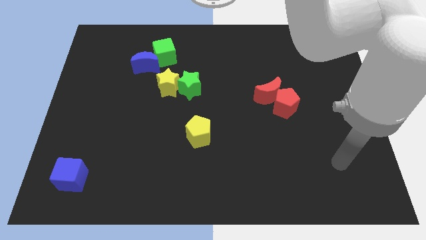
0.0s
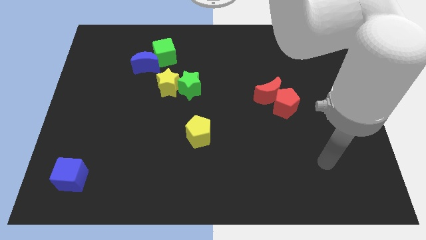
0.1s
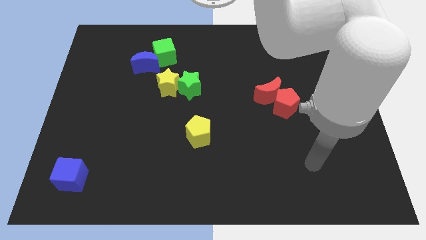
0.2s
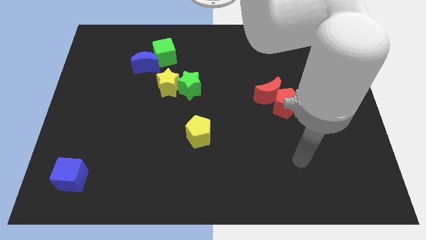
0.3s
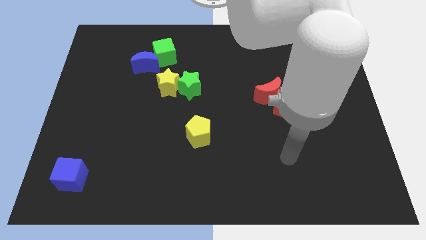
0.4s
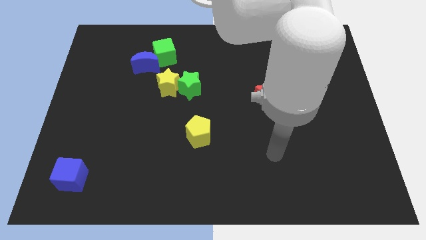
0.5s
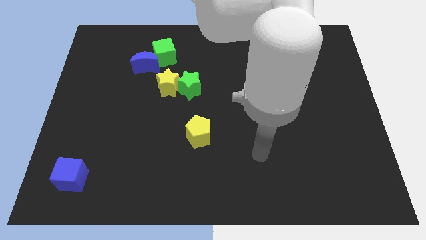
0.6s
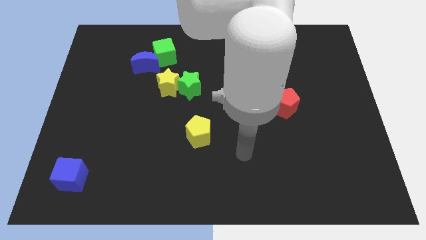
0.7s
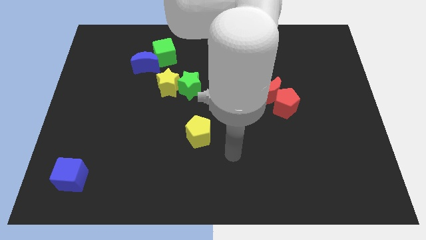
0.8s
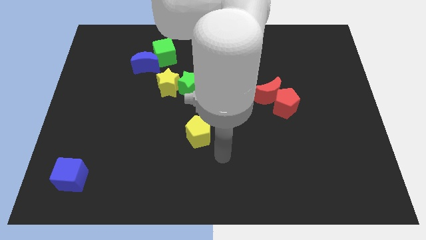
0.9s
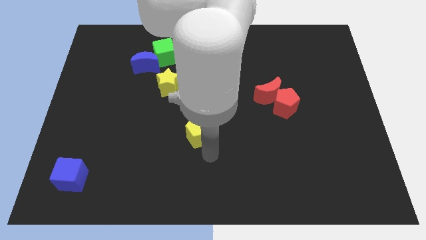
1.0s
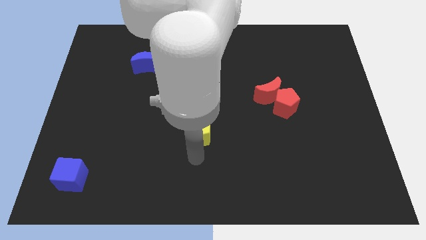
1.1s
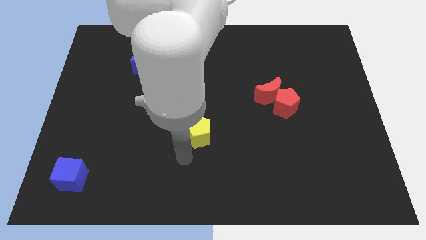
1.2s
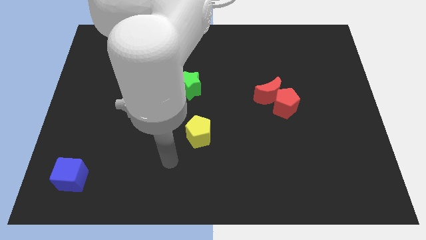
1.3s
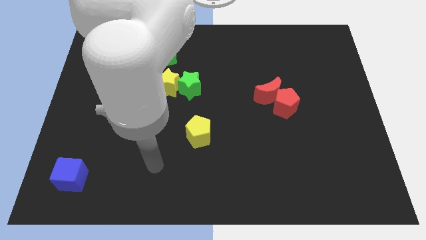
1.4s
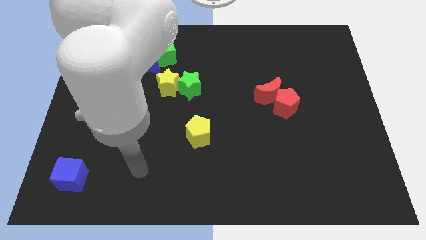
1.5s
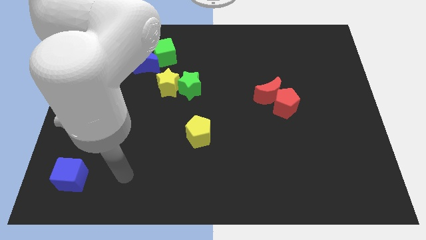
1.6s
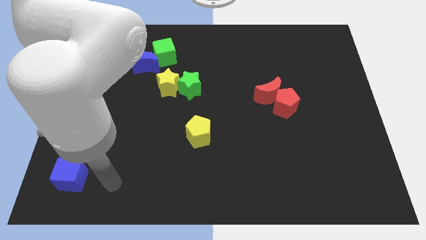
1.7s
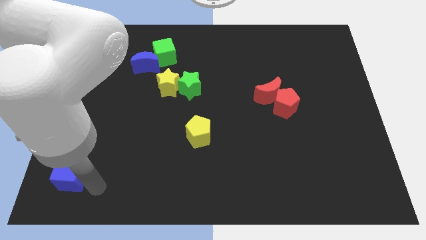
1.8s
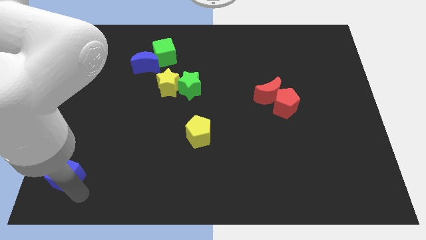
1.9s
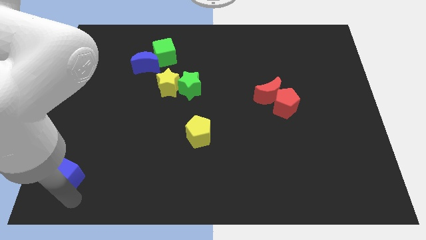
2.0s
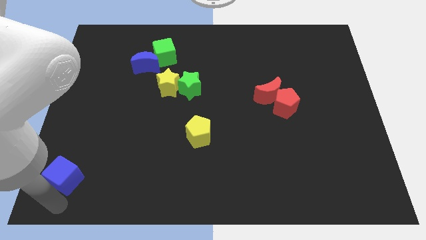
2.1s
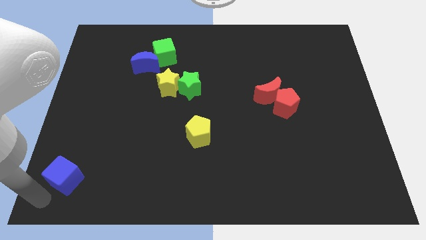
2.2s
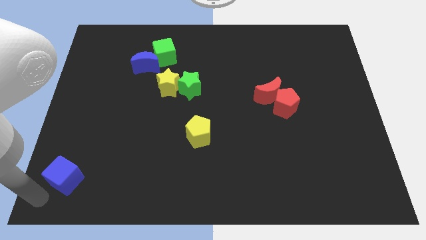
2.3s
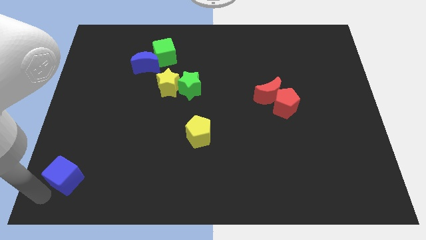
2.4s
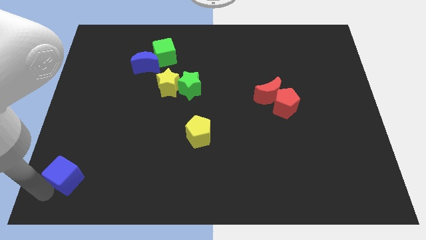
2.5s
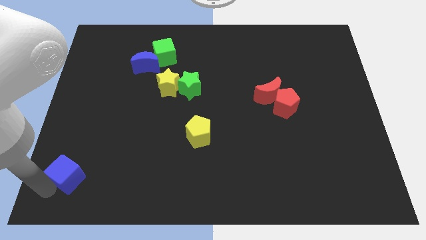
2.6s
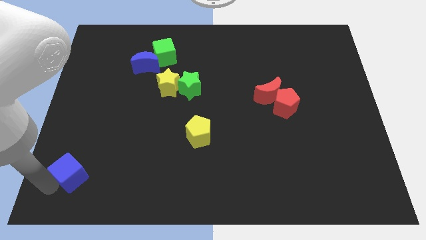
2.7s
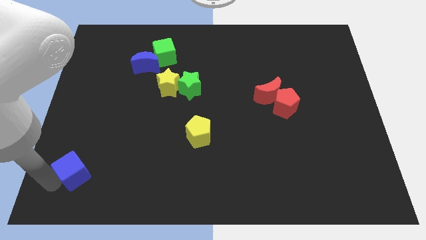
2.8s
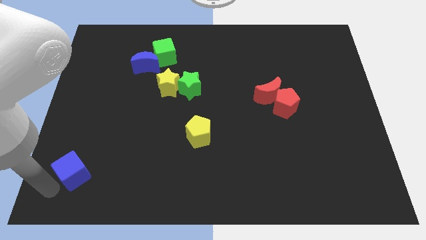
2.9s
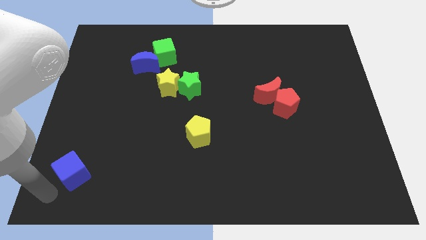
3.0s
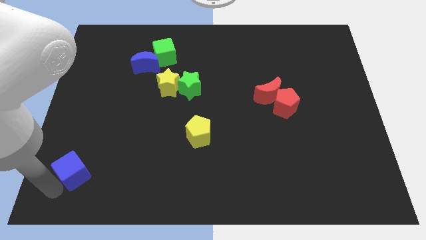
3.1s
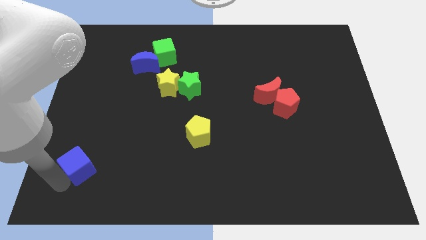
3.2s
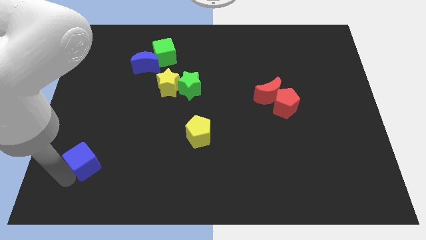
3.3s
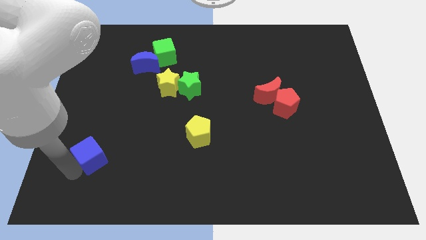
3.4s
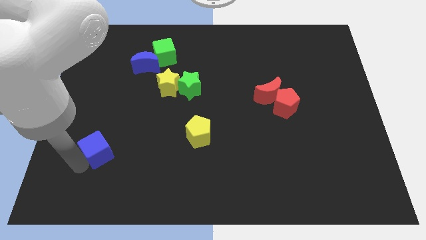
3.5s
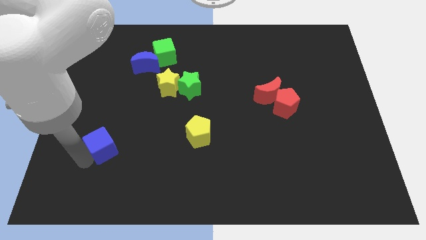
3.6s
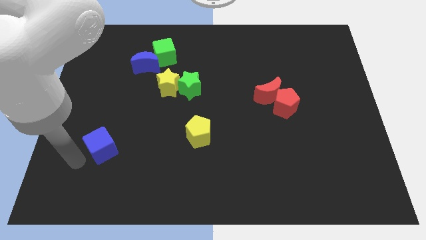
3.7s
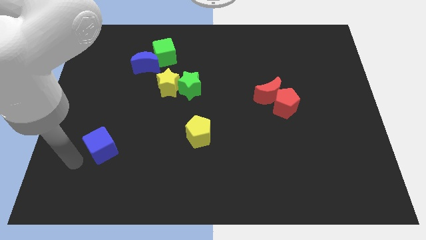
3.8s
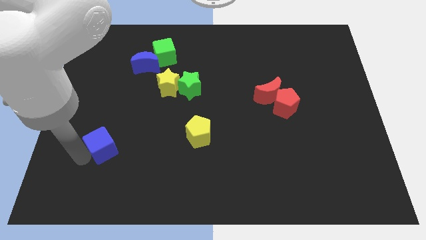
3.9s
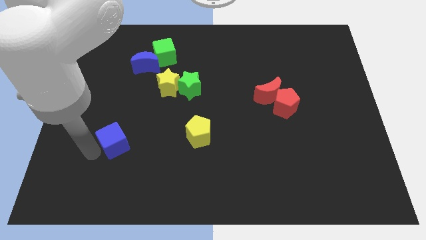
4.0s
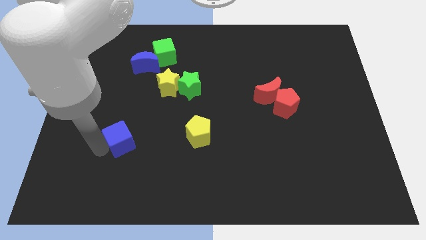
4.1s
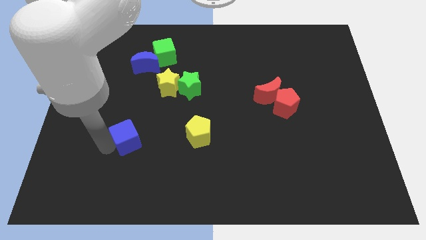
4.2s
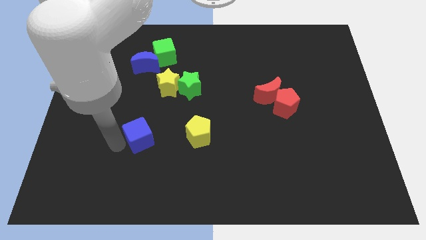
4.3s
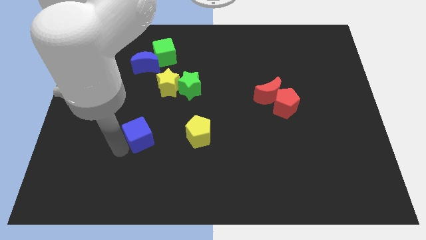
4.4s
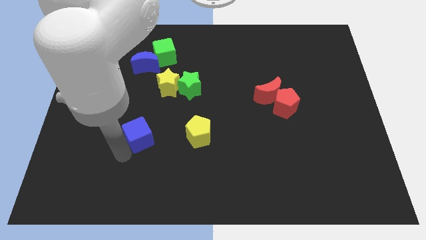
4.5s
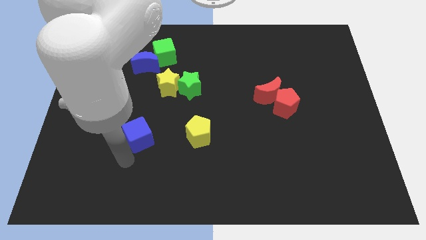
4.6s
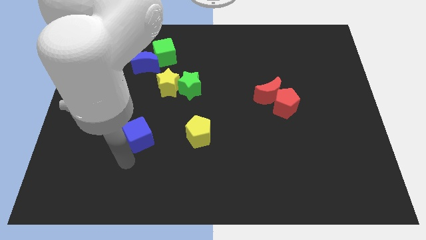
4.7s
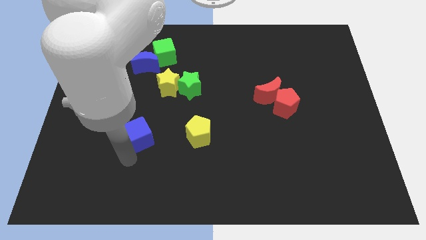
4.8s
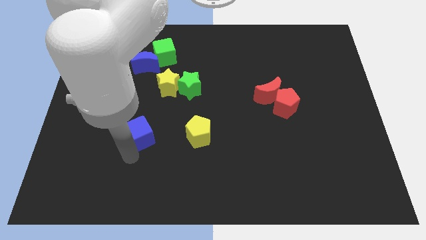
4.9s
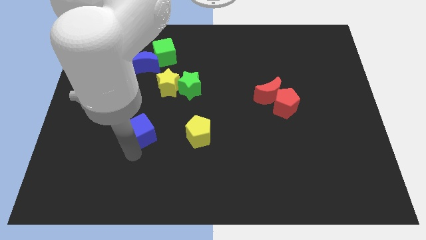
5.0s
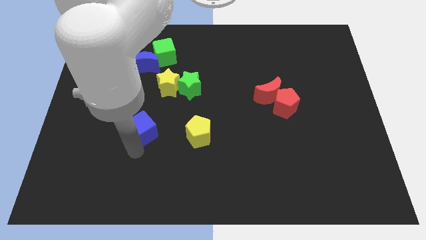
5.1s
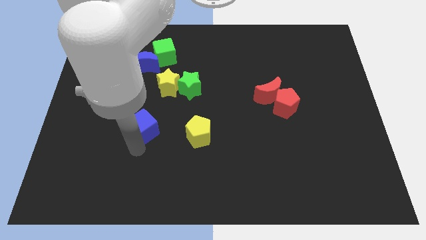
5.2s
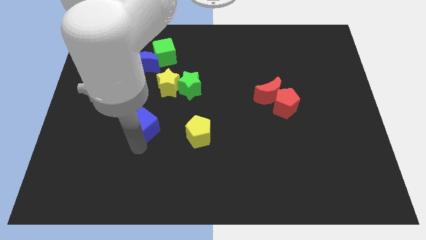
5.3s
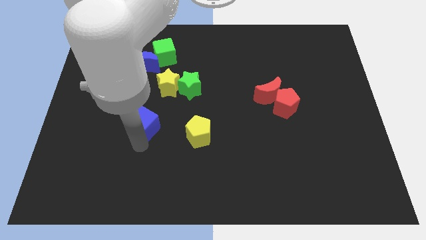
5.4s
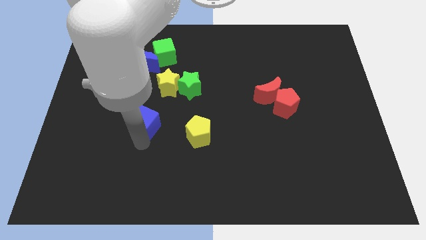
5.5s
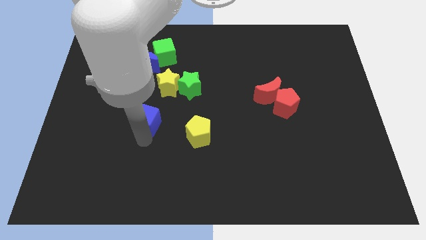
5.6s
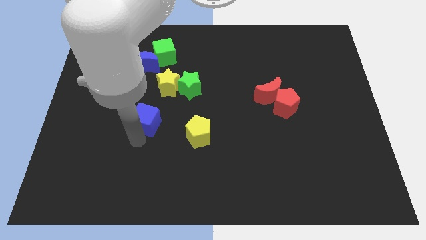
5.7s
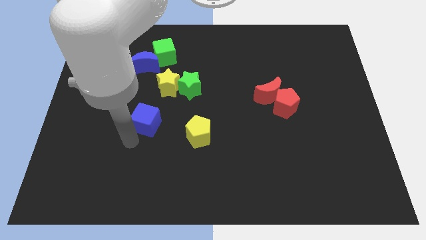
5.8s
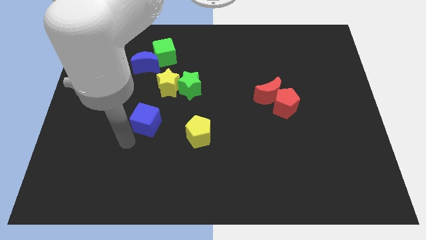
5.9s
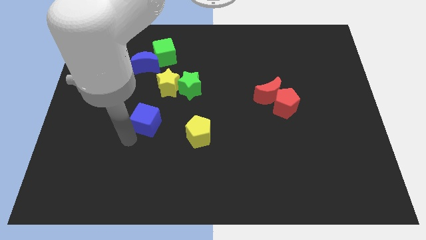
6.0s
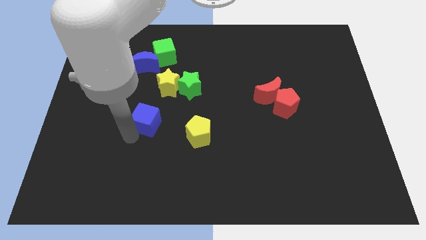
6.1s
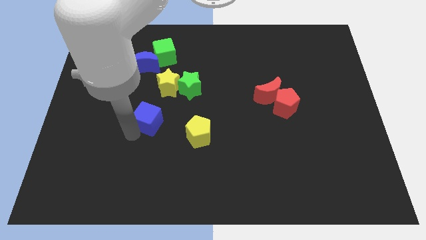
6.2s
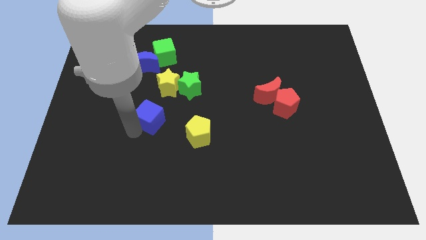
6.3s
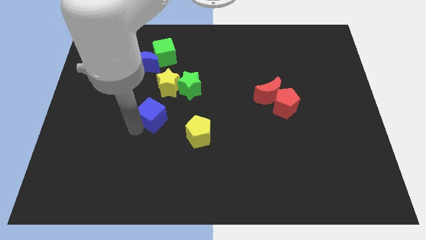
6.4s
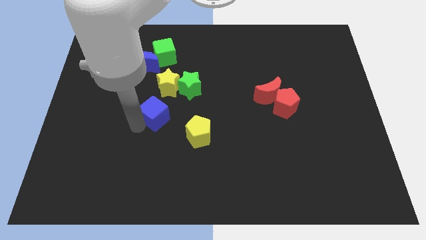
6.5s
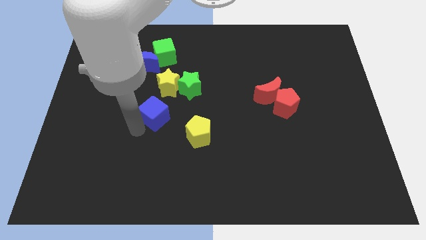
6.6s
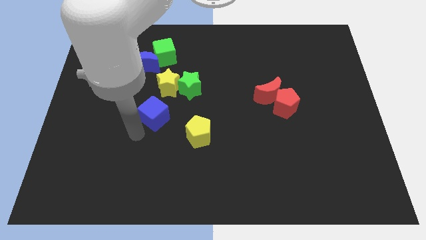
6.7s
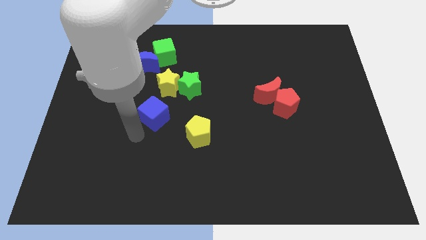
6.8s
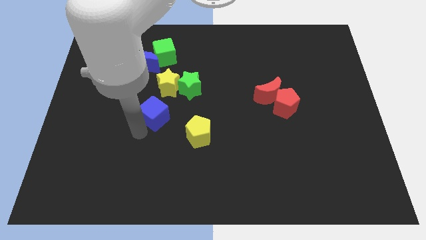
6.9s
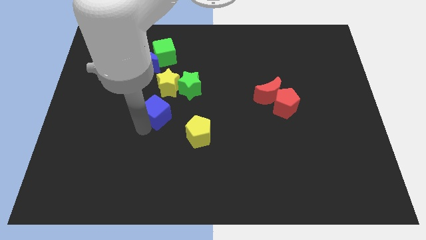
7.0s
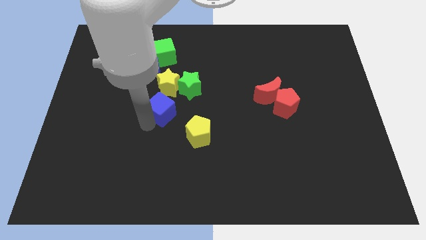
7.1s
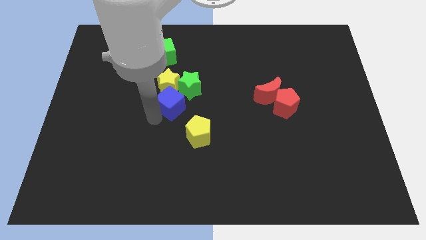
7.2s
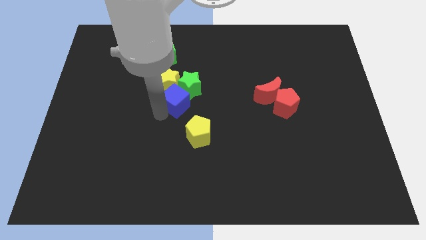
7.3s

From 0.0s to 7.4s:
move the blue cube towards the green star

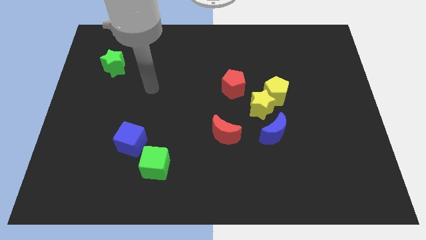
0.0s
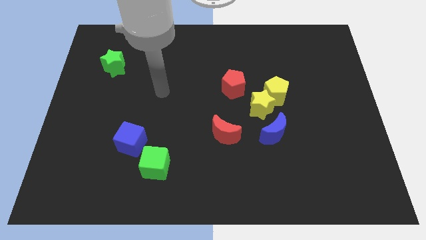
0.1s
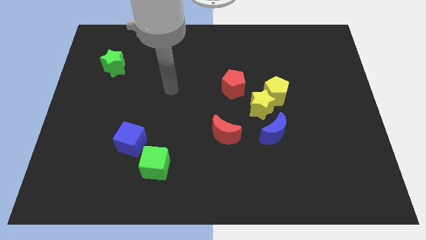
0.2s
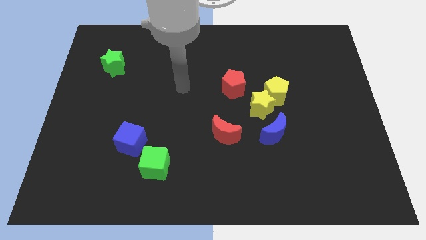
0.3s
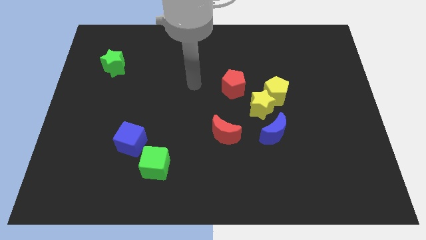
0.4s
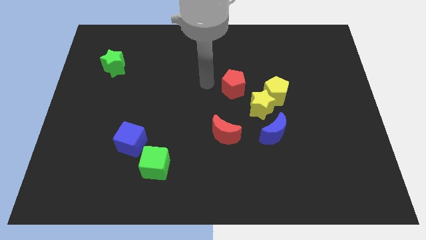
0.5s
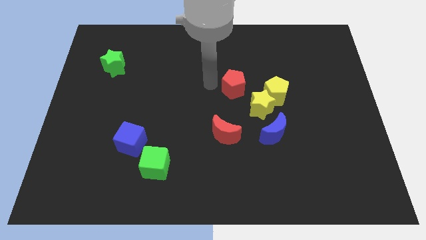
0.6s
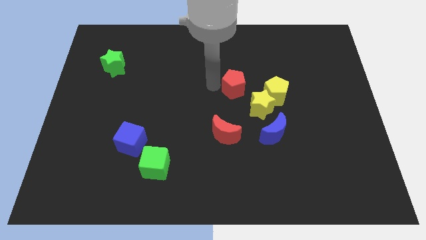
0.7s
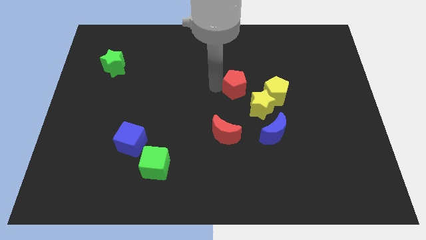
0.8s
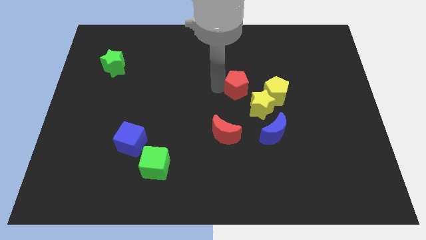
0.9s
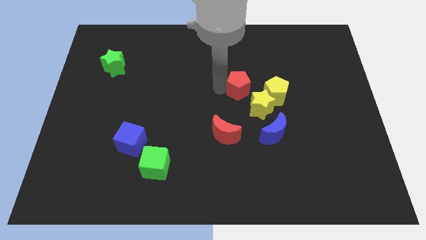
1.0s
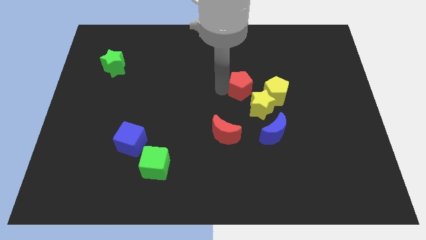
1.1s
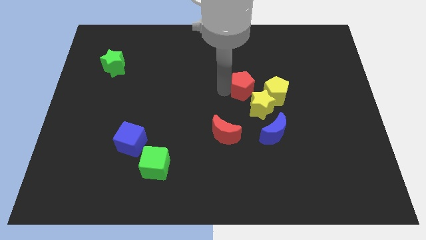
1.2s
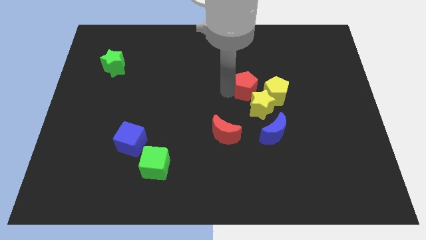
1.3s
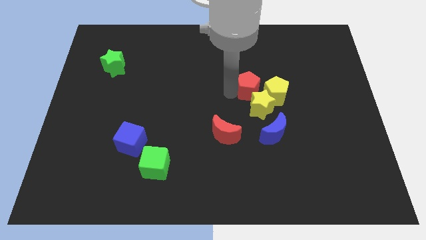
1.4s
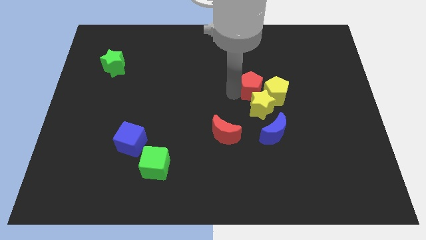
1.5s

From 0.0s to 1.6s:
move the red pentagon towards the yellow pentagon
